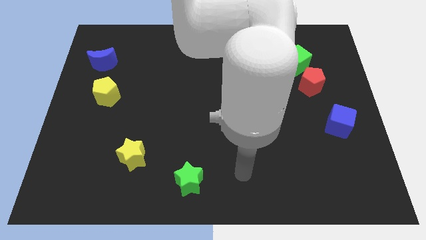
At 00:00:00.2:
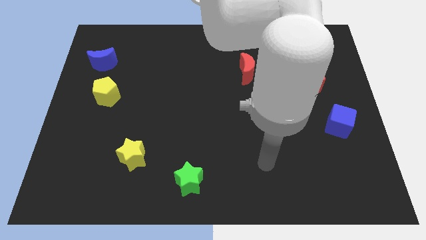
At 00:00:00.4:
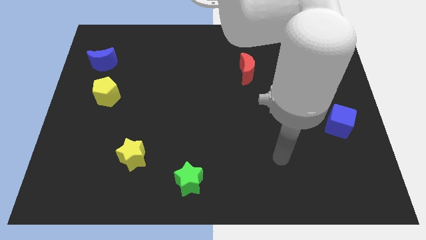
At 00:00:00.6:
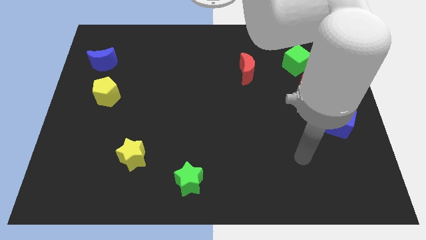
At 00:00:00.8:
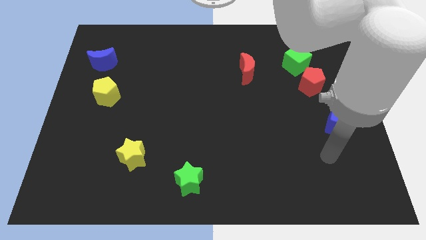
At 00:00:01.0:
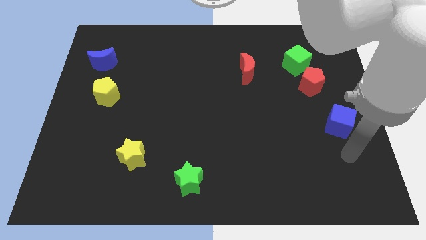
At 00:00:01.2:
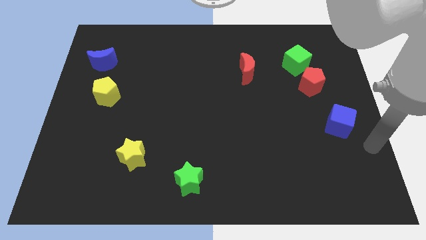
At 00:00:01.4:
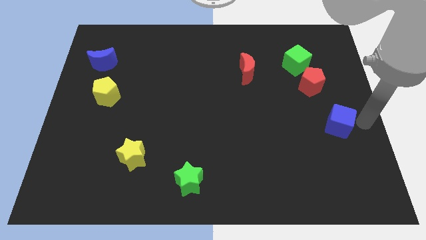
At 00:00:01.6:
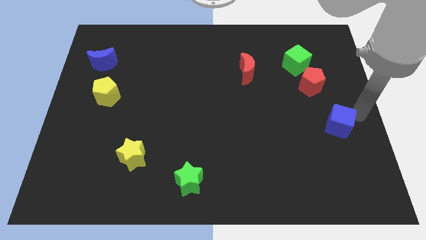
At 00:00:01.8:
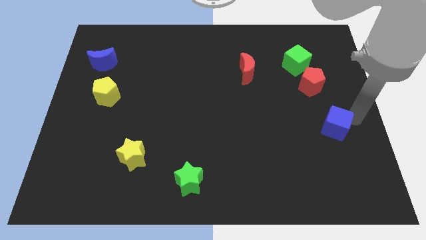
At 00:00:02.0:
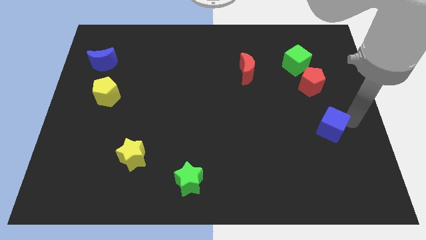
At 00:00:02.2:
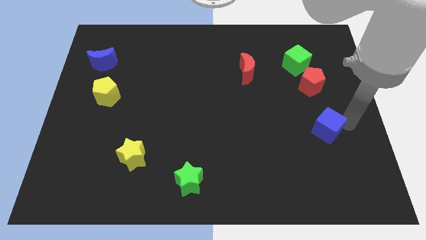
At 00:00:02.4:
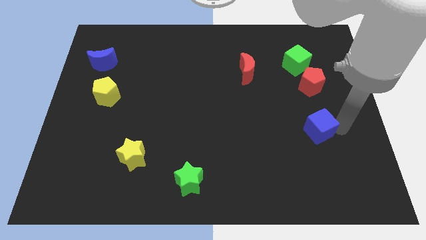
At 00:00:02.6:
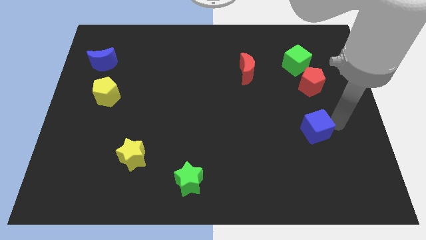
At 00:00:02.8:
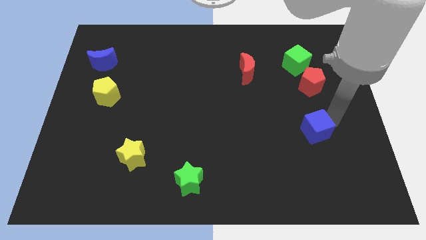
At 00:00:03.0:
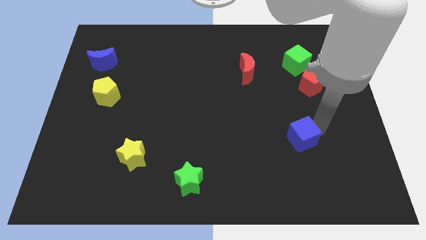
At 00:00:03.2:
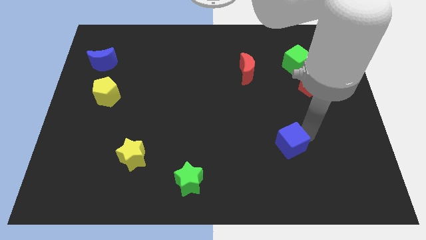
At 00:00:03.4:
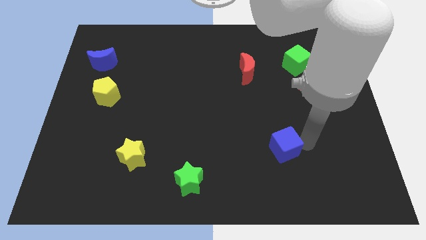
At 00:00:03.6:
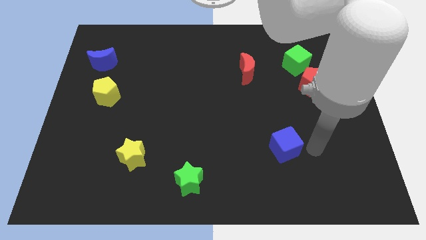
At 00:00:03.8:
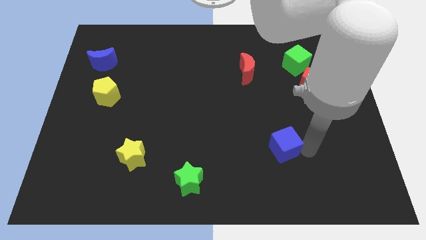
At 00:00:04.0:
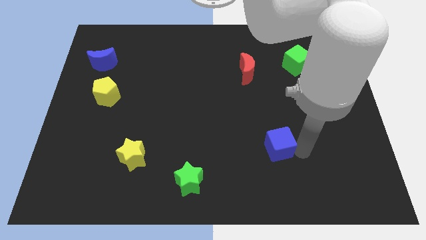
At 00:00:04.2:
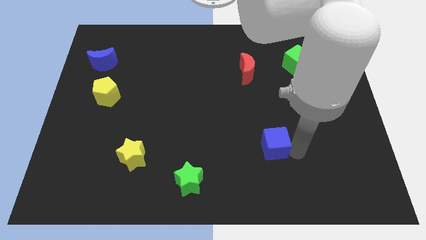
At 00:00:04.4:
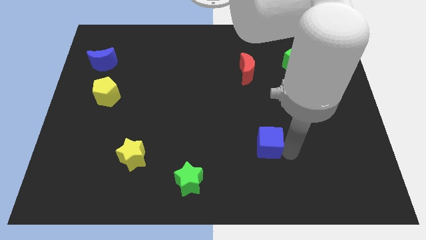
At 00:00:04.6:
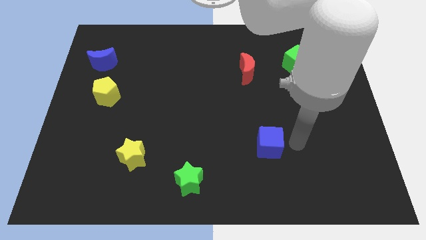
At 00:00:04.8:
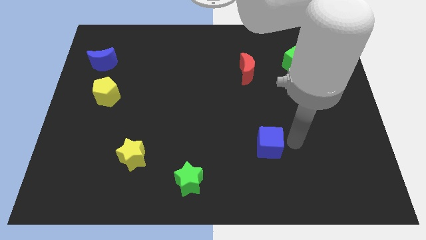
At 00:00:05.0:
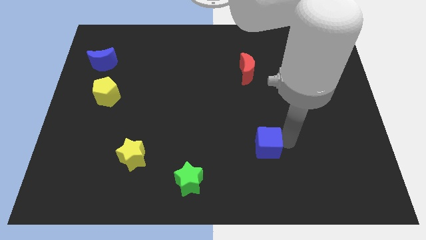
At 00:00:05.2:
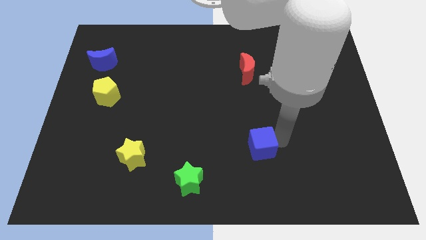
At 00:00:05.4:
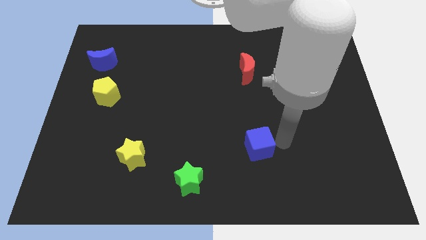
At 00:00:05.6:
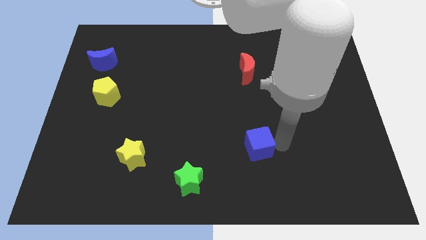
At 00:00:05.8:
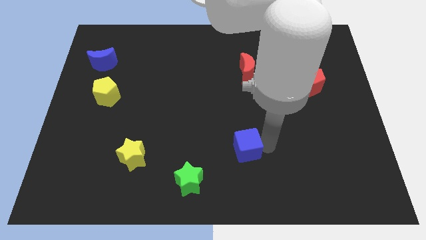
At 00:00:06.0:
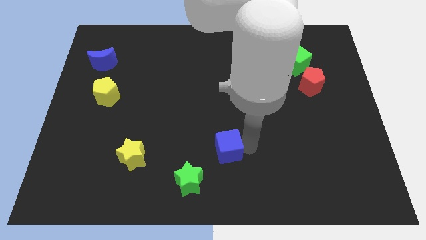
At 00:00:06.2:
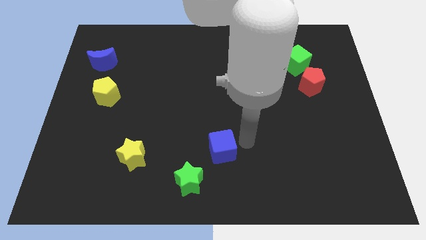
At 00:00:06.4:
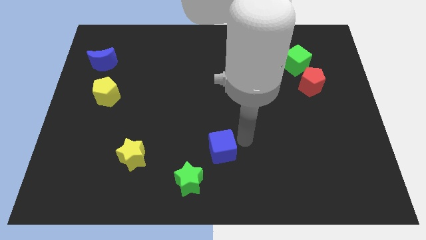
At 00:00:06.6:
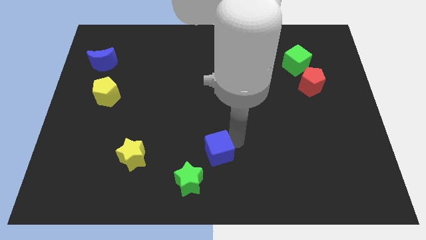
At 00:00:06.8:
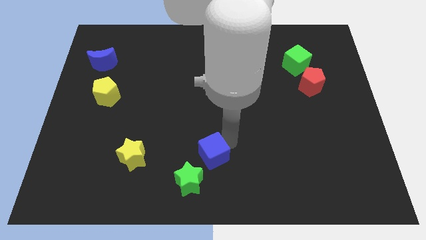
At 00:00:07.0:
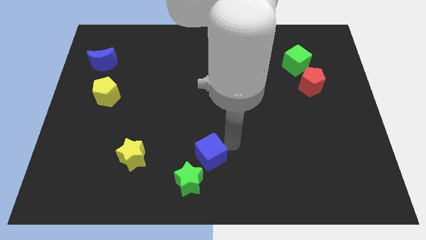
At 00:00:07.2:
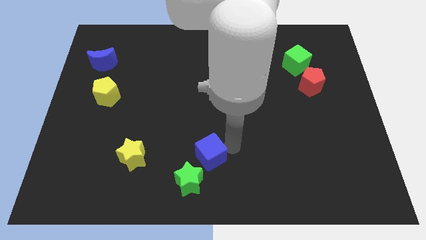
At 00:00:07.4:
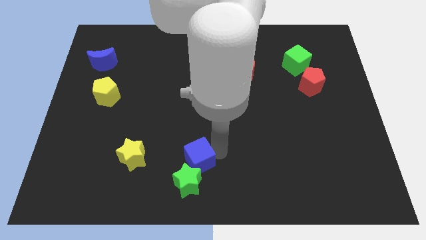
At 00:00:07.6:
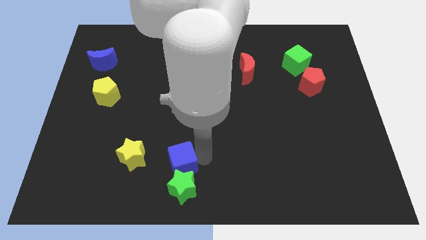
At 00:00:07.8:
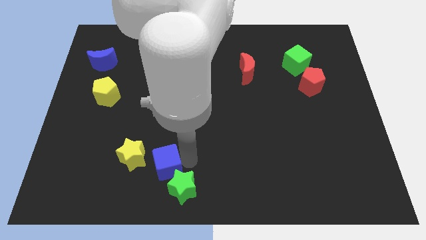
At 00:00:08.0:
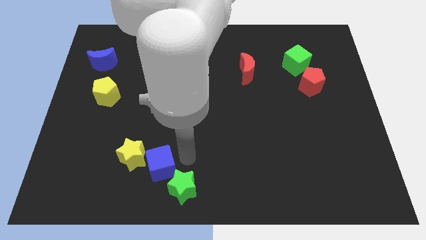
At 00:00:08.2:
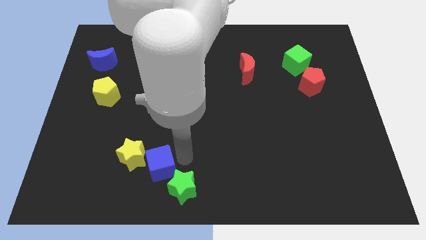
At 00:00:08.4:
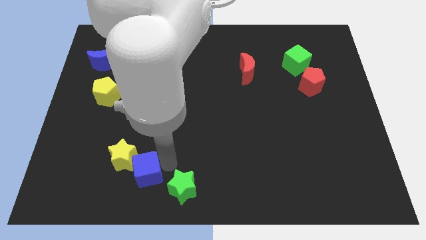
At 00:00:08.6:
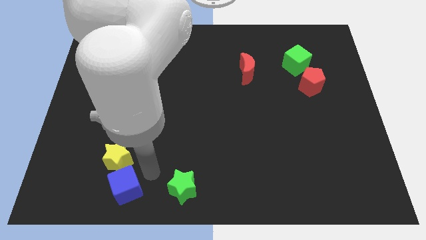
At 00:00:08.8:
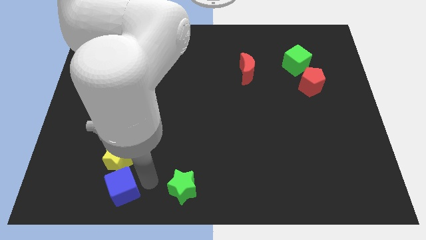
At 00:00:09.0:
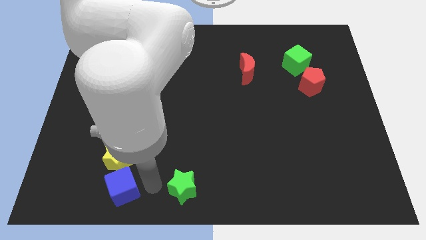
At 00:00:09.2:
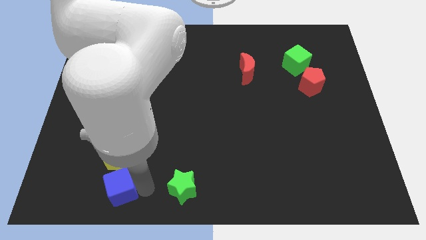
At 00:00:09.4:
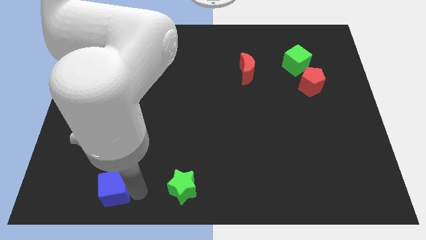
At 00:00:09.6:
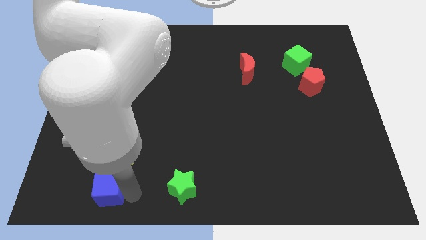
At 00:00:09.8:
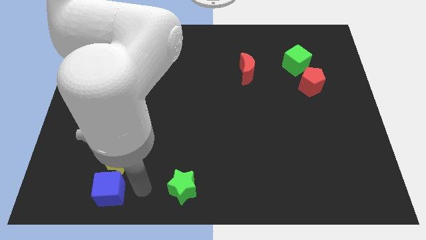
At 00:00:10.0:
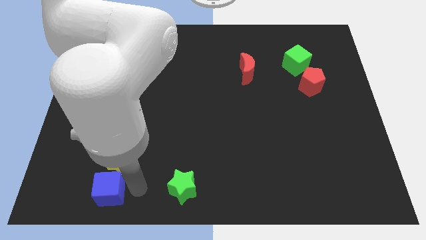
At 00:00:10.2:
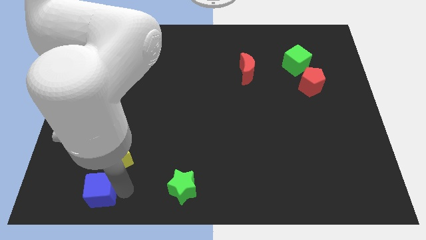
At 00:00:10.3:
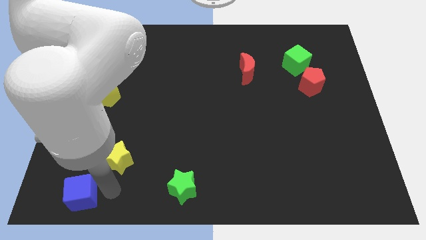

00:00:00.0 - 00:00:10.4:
push the blue cube to the bottom left corner

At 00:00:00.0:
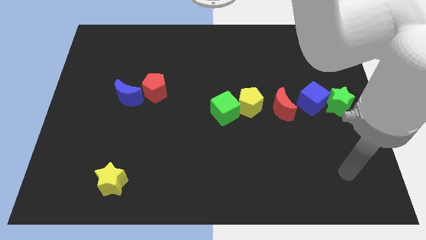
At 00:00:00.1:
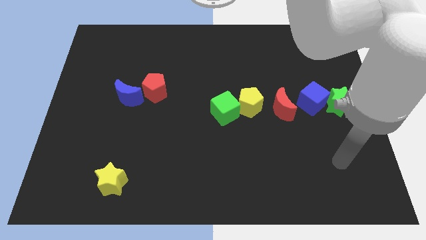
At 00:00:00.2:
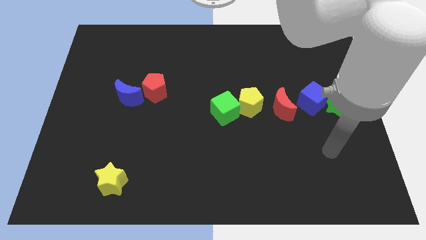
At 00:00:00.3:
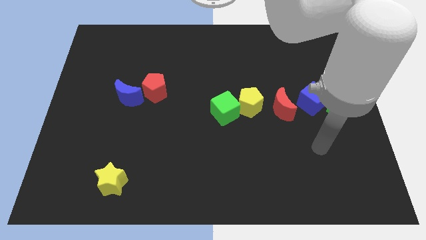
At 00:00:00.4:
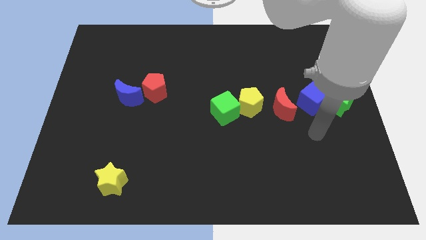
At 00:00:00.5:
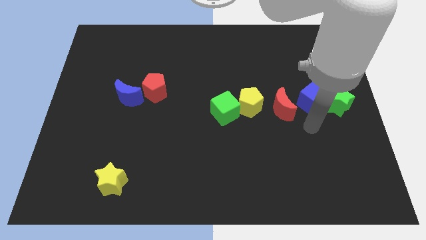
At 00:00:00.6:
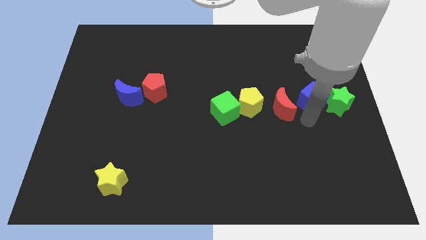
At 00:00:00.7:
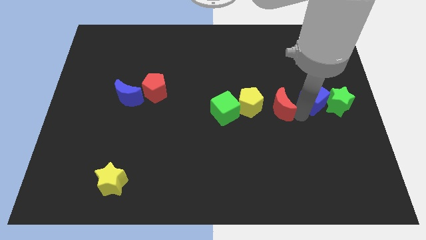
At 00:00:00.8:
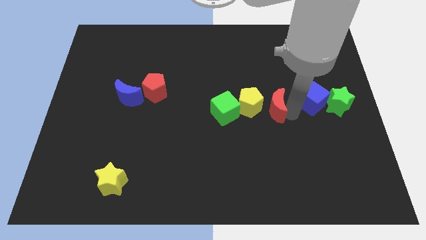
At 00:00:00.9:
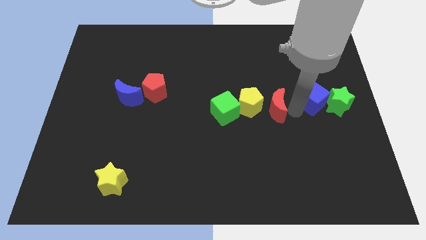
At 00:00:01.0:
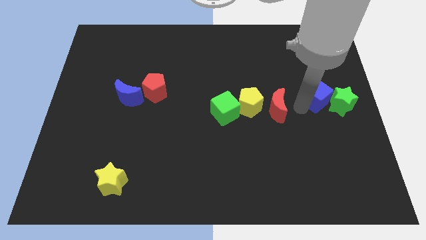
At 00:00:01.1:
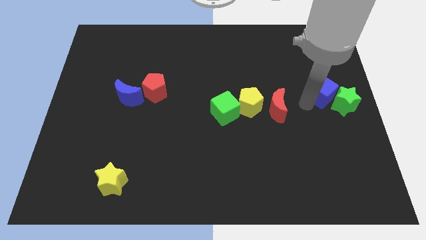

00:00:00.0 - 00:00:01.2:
put the blue cube to the right side
